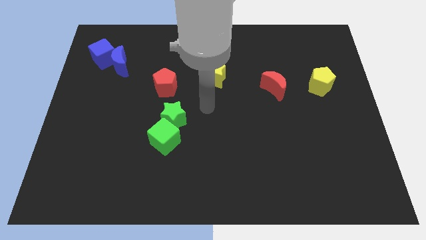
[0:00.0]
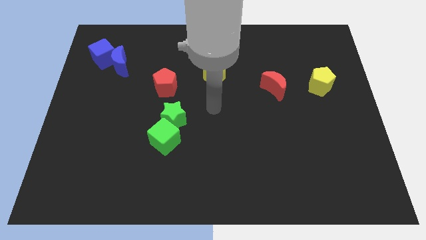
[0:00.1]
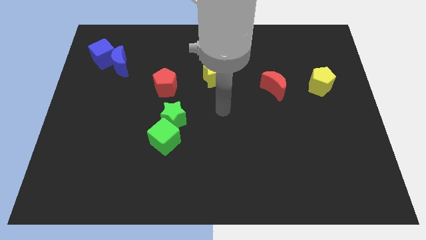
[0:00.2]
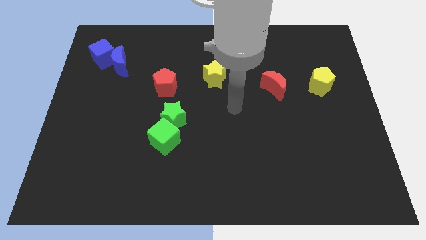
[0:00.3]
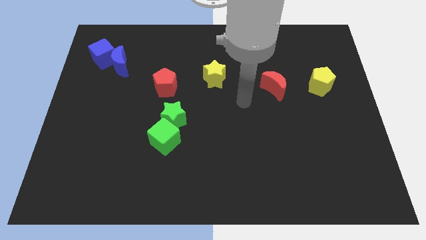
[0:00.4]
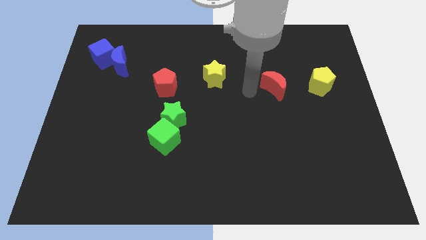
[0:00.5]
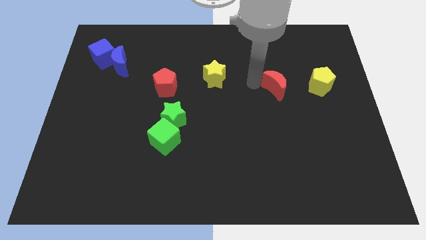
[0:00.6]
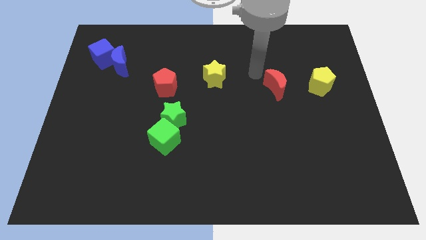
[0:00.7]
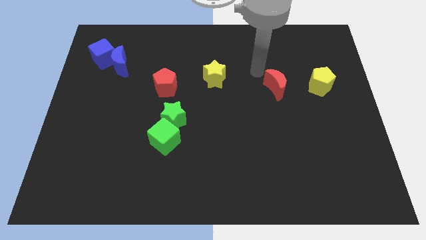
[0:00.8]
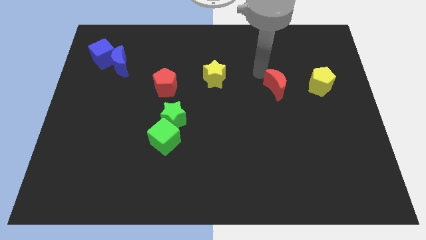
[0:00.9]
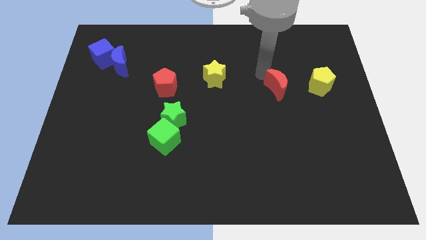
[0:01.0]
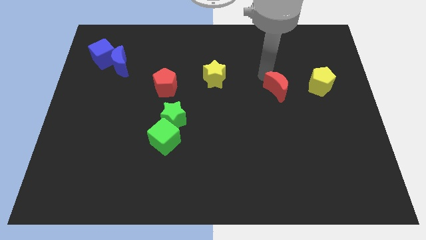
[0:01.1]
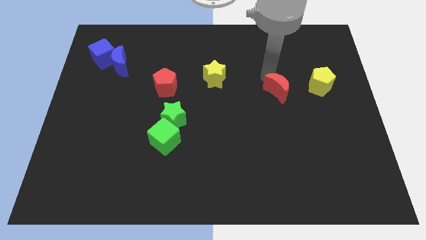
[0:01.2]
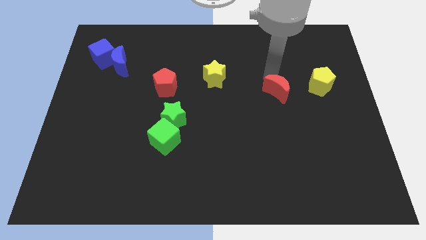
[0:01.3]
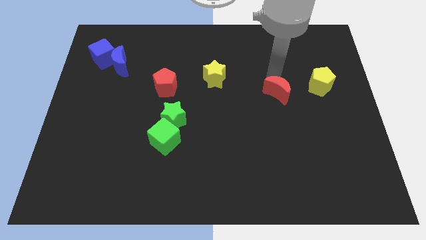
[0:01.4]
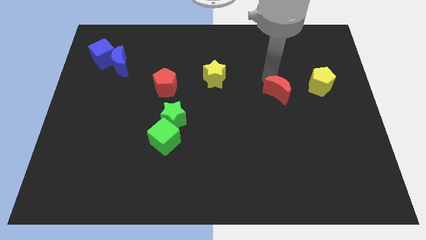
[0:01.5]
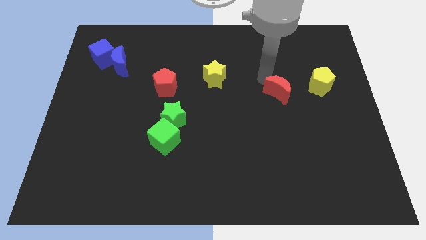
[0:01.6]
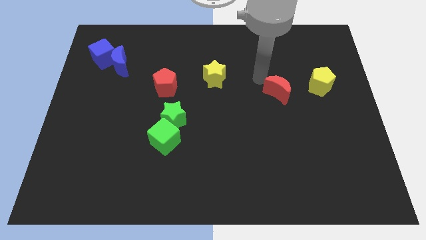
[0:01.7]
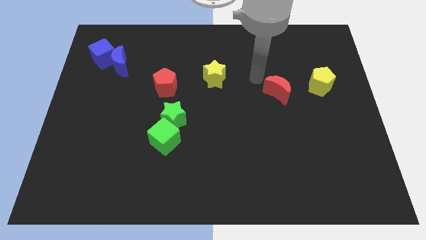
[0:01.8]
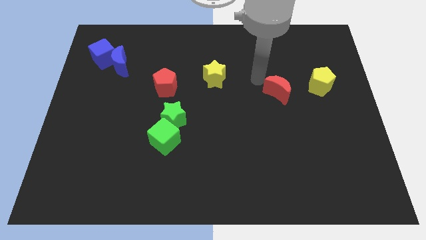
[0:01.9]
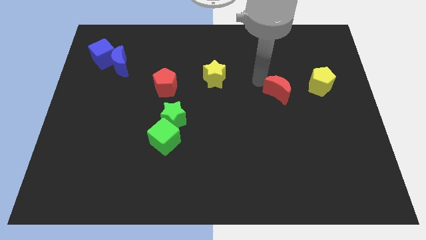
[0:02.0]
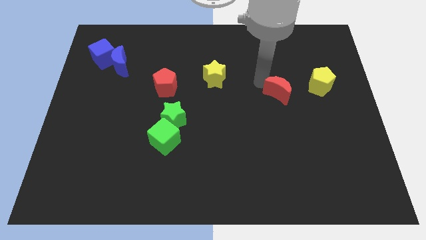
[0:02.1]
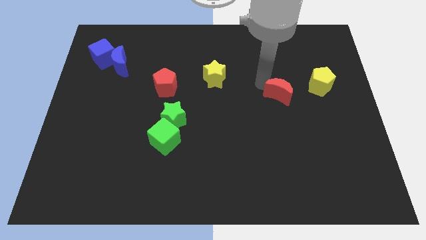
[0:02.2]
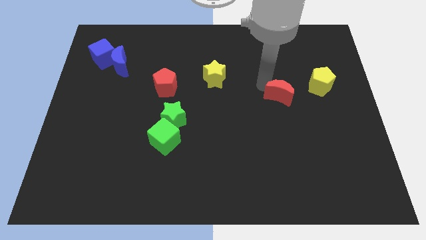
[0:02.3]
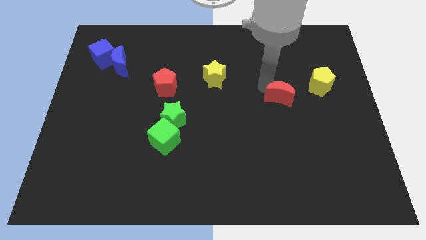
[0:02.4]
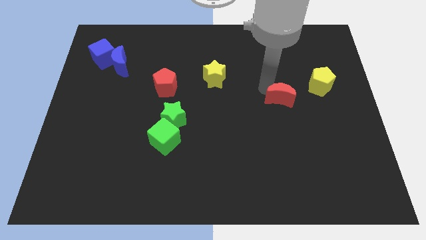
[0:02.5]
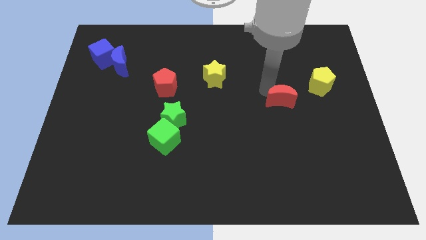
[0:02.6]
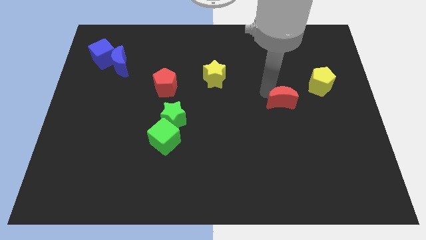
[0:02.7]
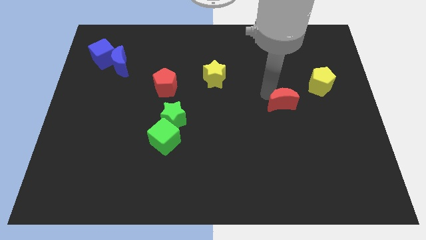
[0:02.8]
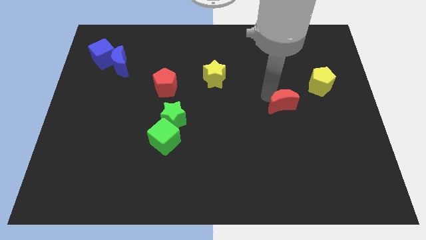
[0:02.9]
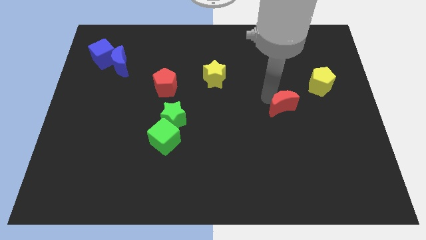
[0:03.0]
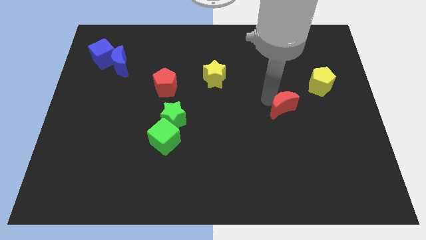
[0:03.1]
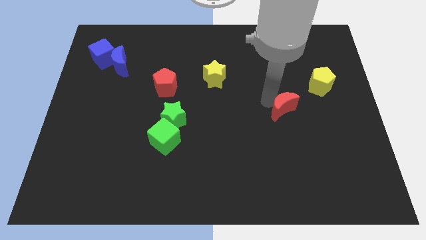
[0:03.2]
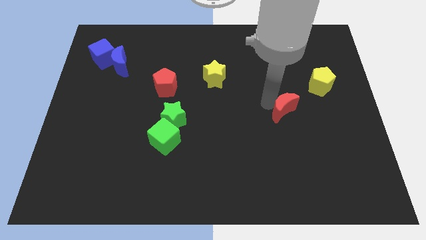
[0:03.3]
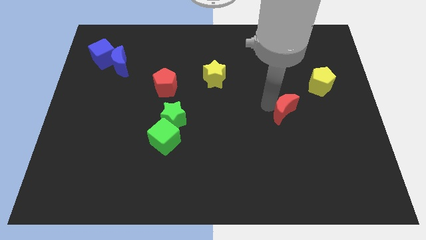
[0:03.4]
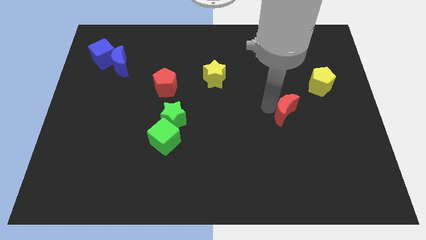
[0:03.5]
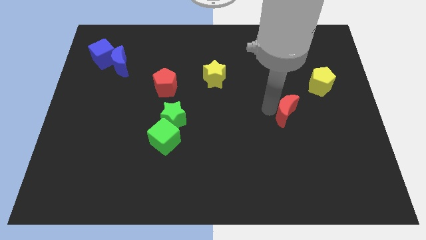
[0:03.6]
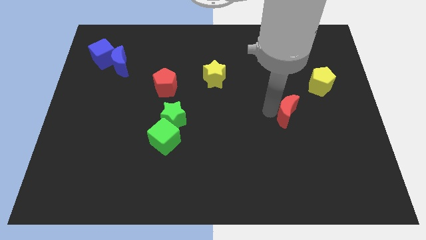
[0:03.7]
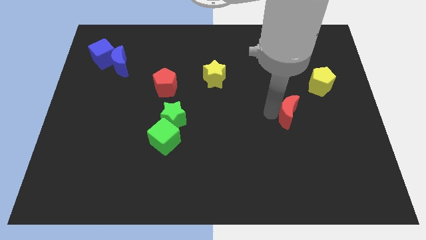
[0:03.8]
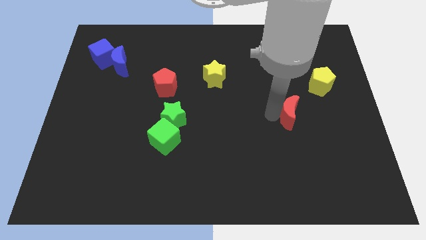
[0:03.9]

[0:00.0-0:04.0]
push the red moon down and right diagonally a little bit

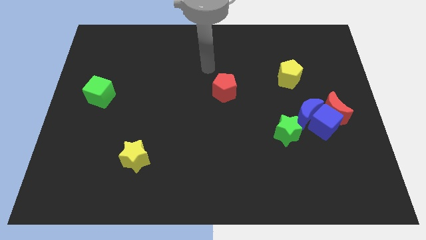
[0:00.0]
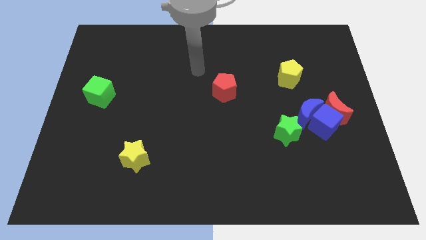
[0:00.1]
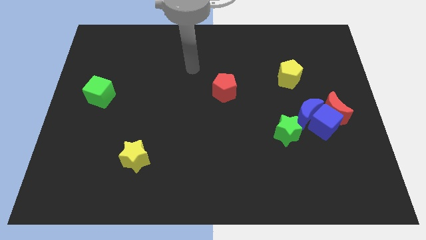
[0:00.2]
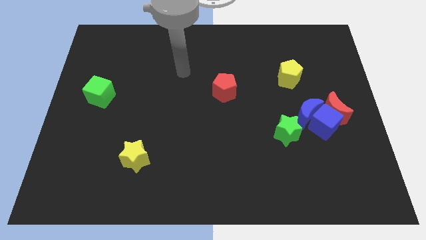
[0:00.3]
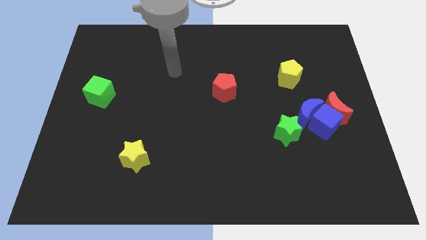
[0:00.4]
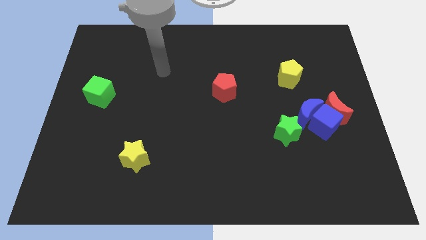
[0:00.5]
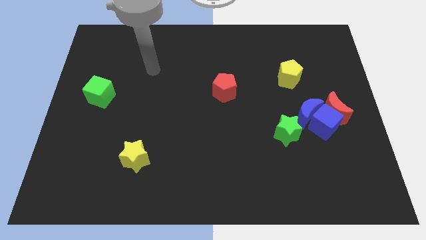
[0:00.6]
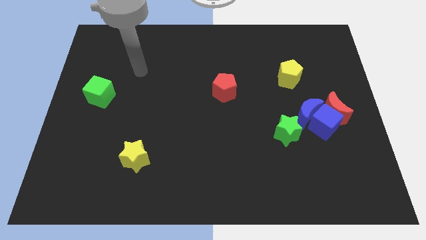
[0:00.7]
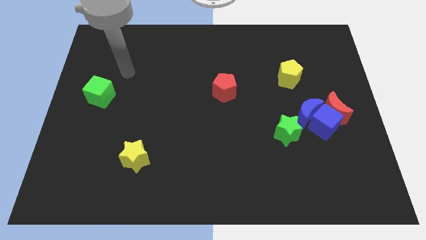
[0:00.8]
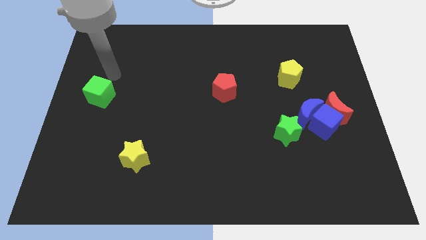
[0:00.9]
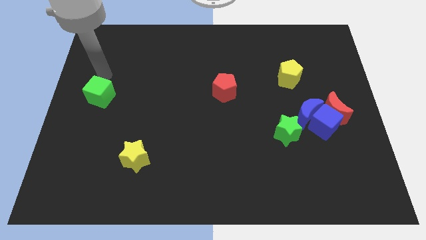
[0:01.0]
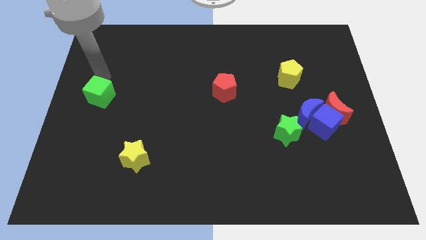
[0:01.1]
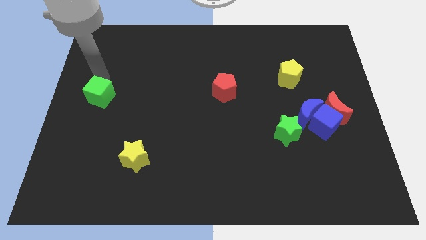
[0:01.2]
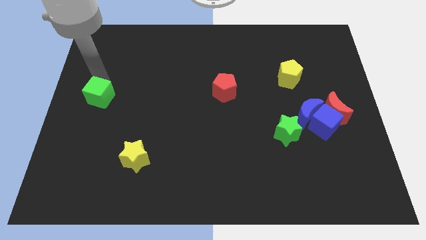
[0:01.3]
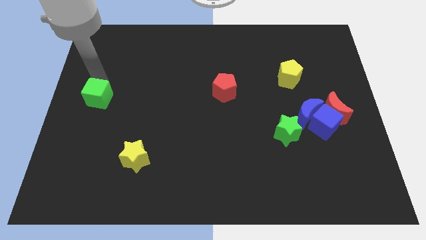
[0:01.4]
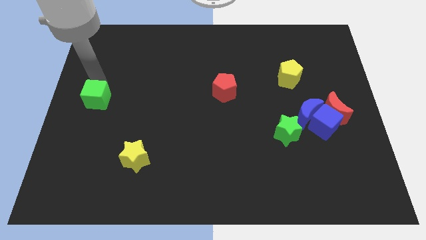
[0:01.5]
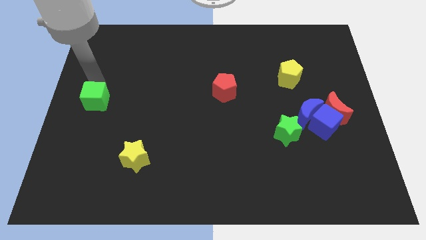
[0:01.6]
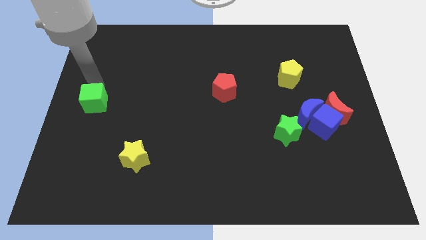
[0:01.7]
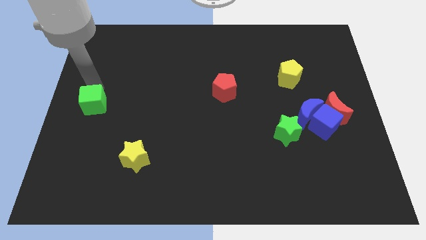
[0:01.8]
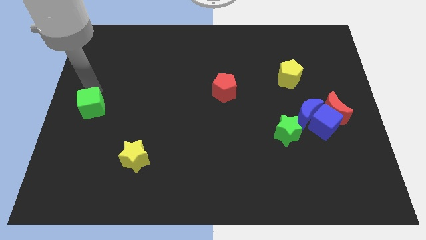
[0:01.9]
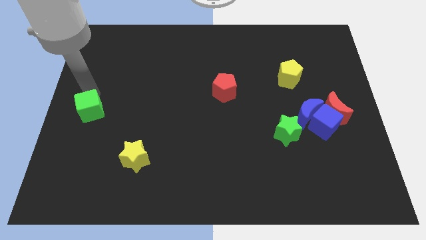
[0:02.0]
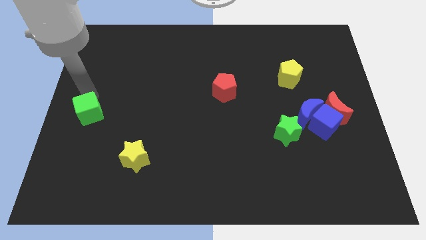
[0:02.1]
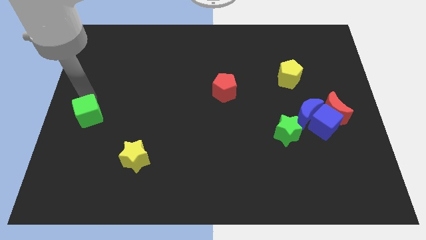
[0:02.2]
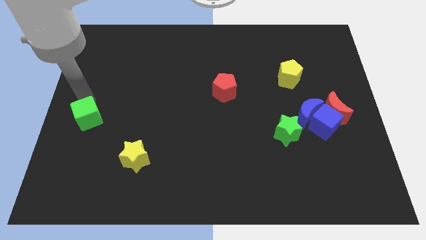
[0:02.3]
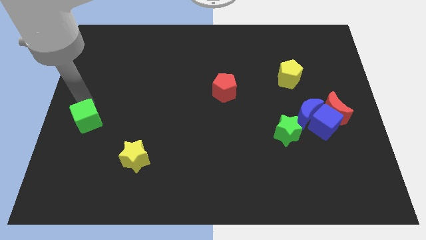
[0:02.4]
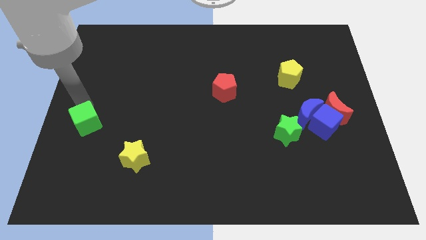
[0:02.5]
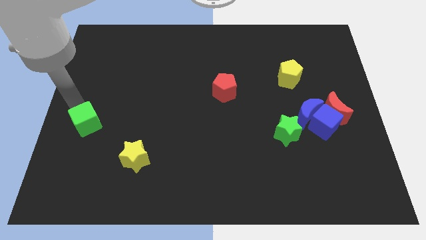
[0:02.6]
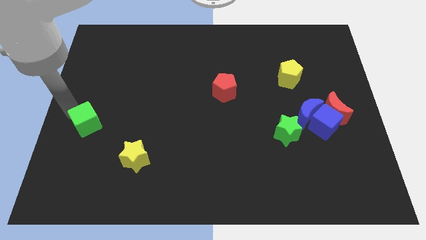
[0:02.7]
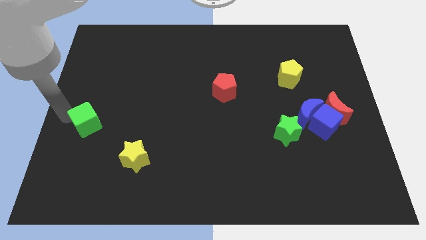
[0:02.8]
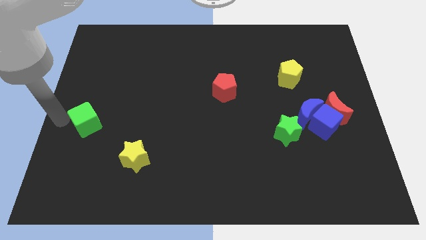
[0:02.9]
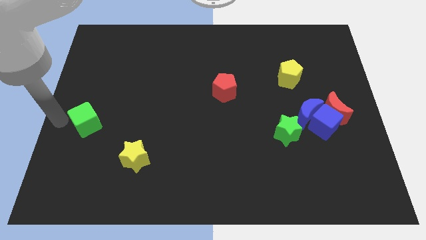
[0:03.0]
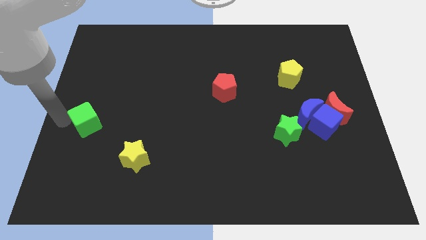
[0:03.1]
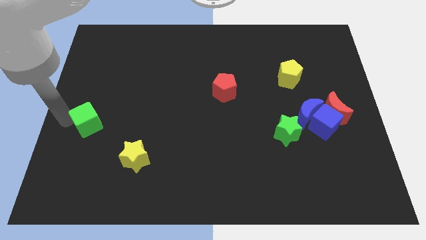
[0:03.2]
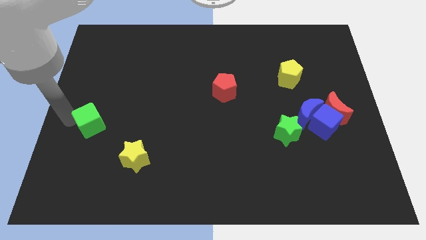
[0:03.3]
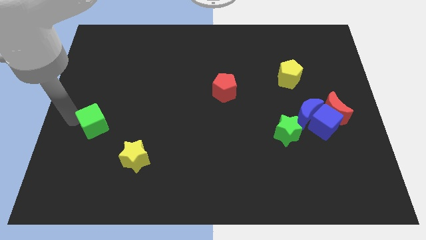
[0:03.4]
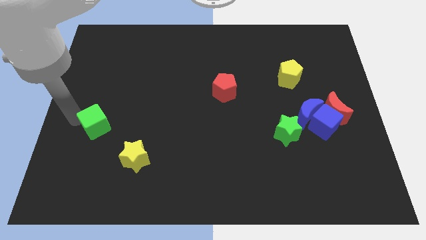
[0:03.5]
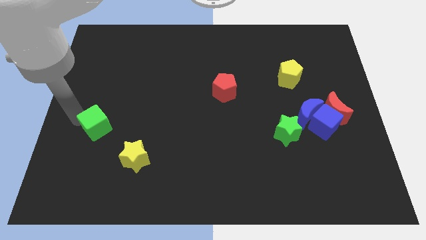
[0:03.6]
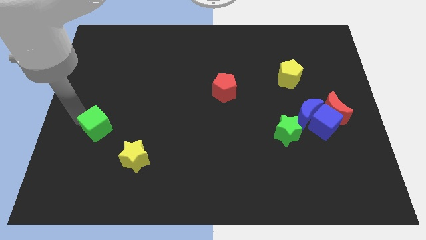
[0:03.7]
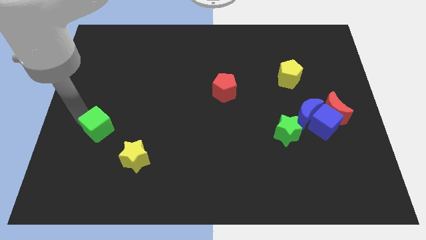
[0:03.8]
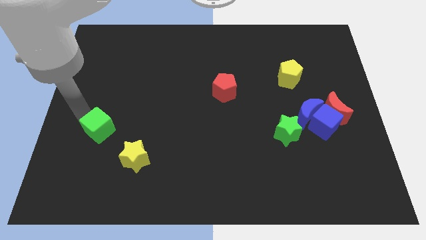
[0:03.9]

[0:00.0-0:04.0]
slightly move the green cube downwards and to the right diagonally
